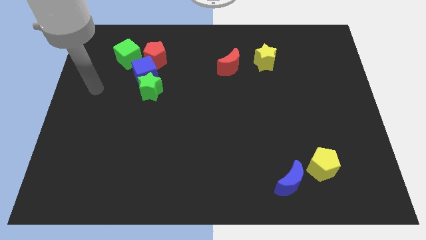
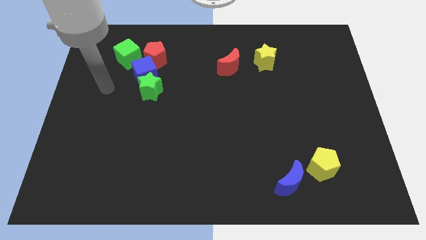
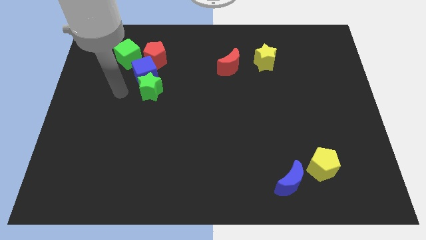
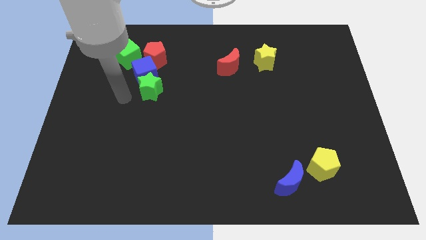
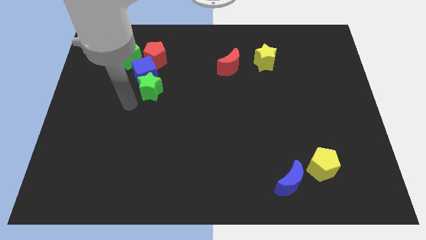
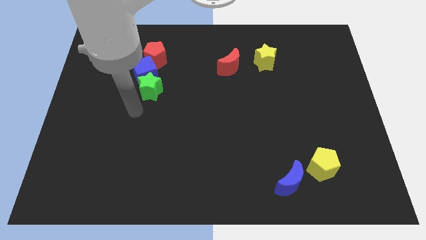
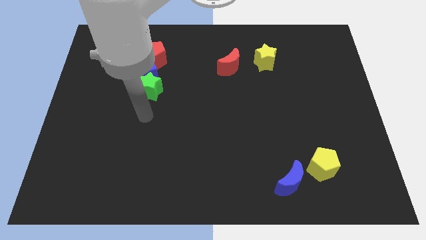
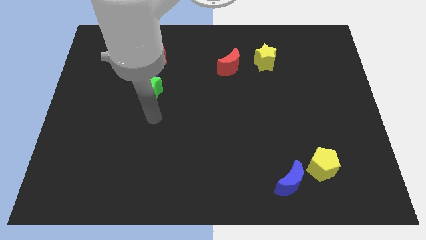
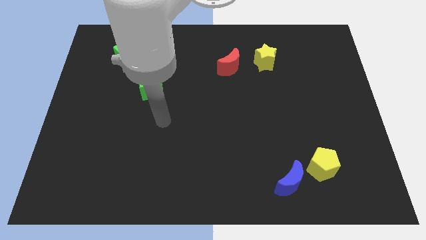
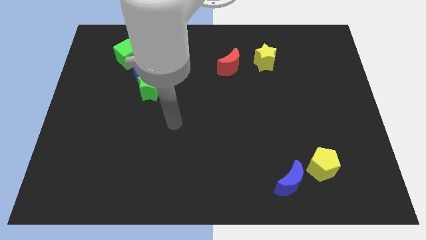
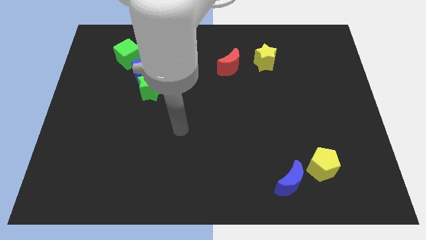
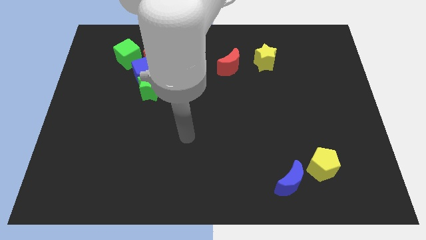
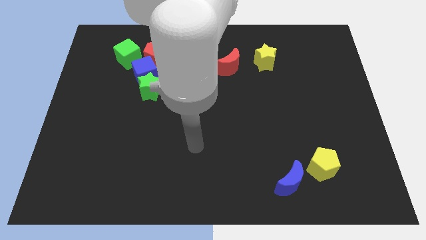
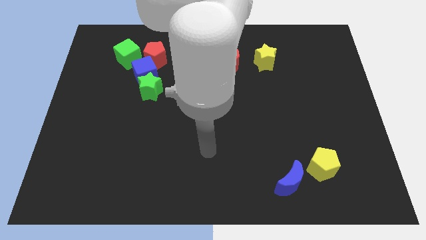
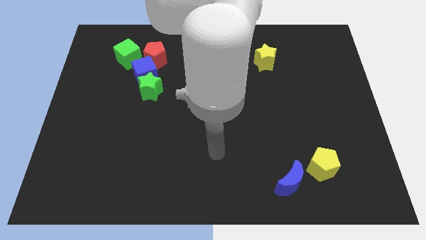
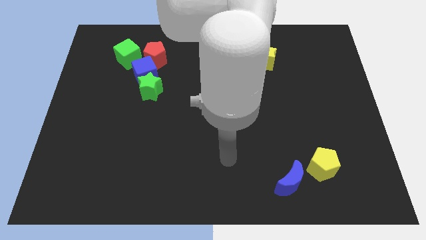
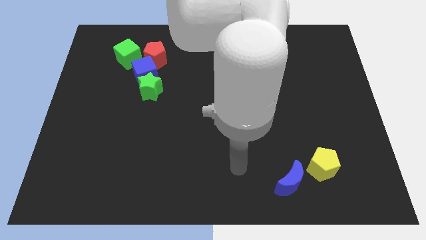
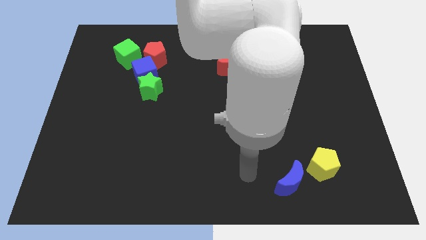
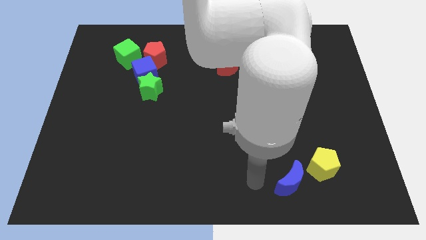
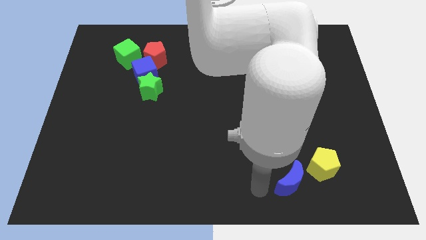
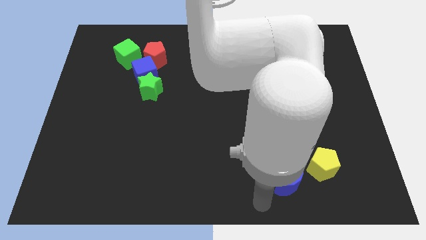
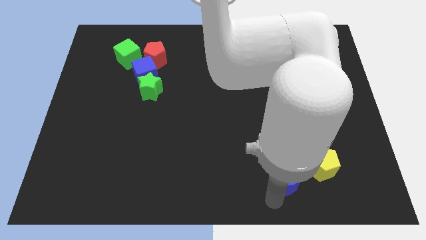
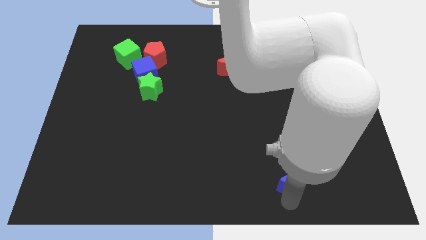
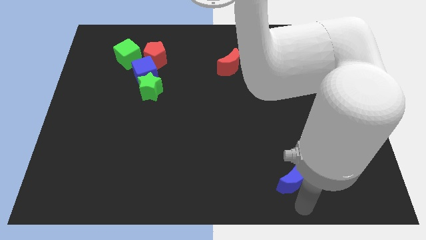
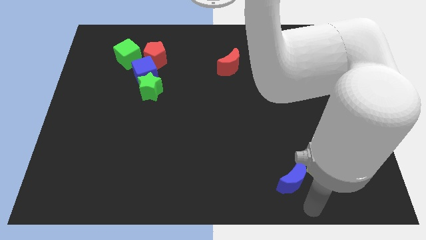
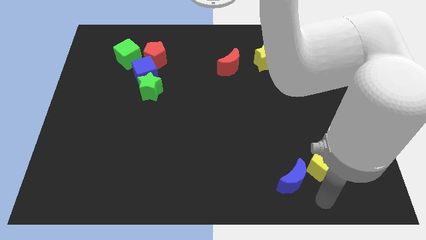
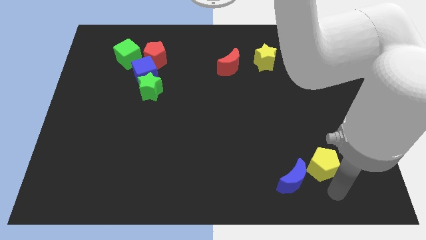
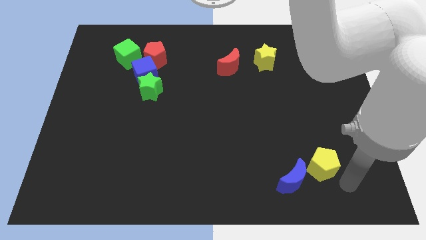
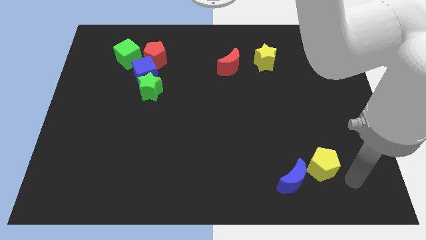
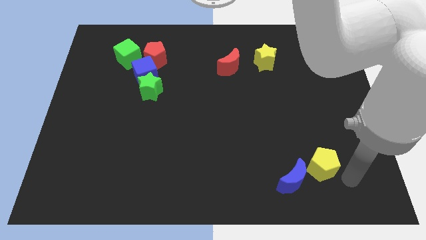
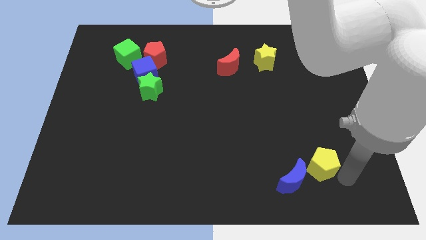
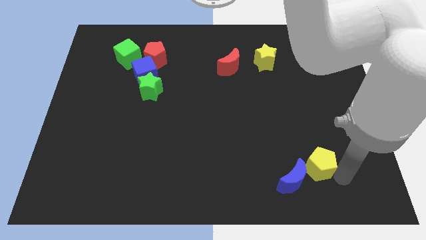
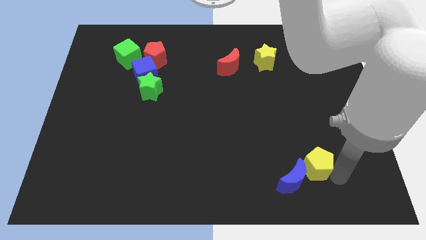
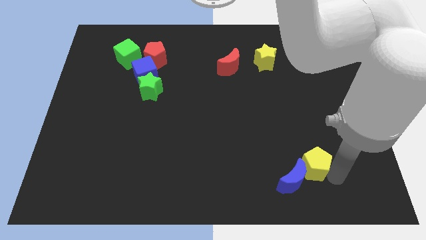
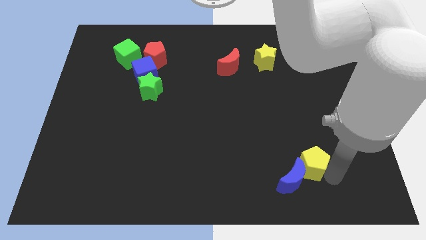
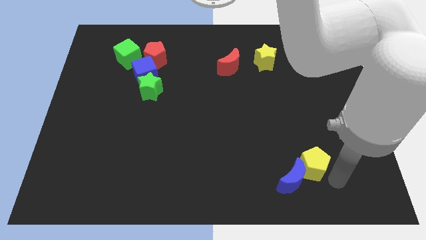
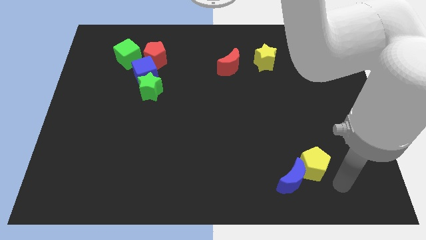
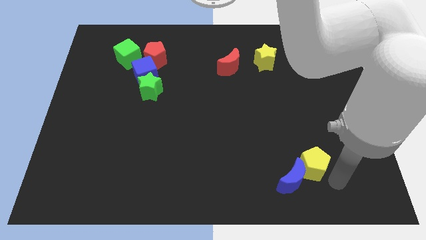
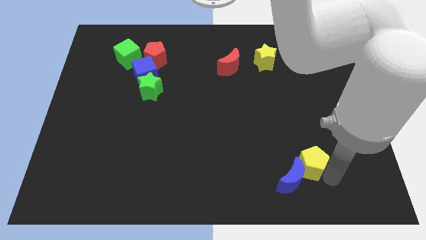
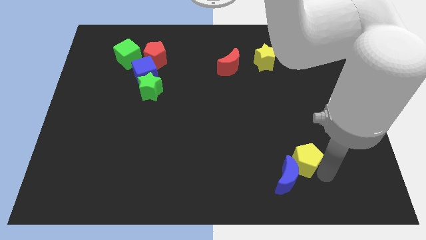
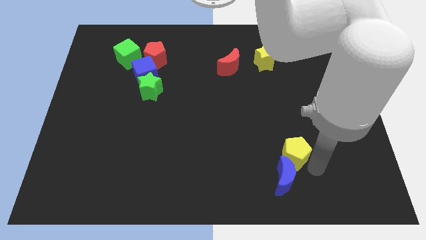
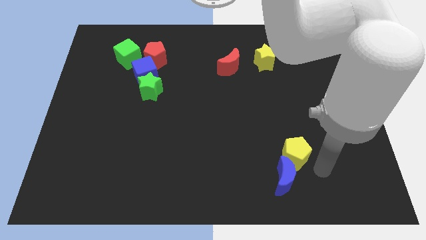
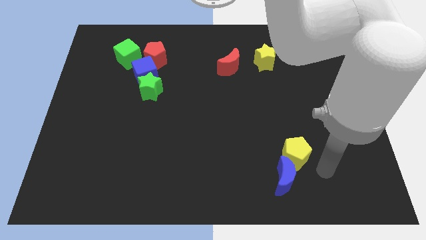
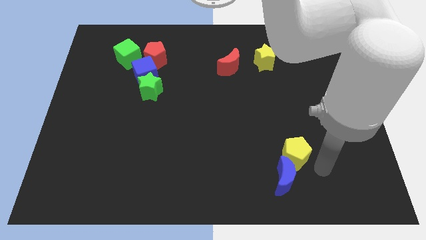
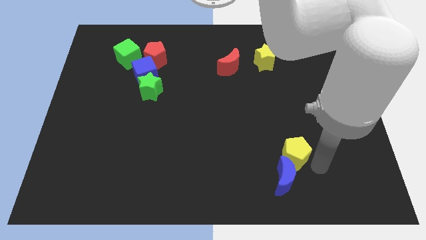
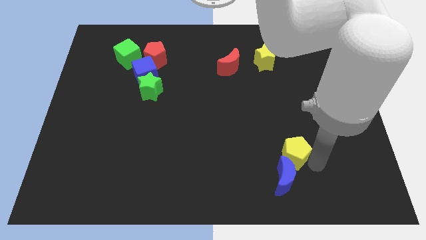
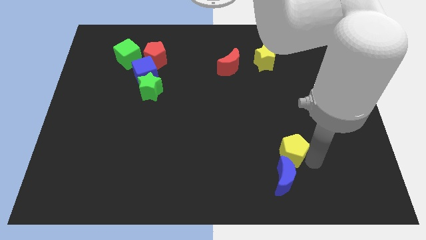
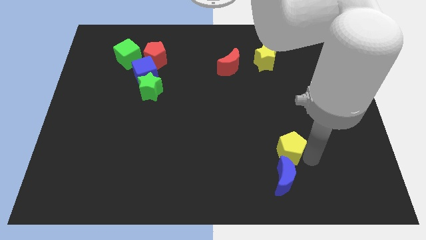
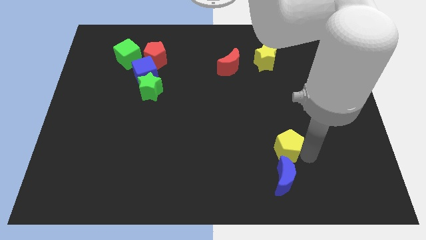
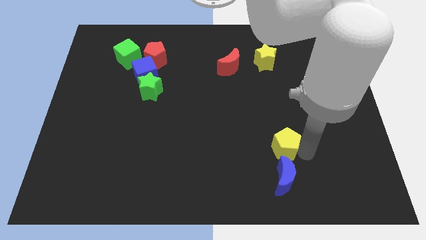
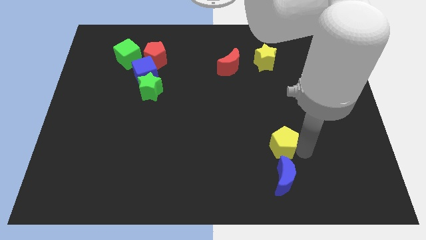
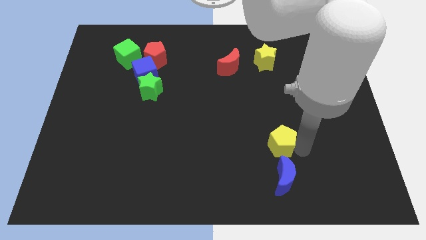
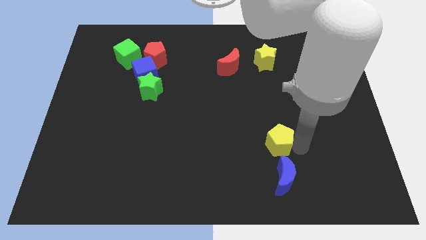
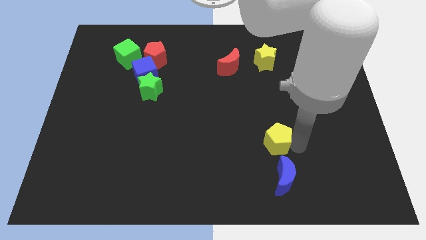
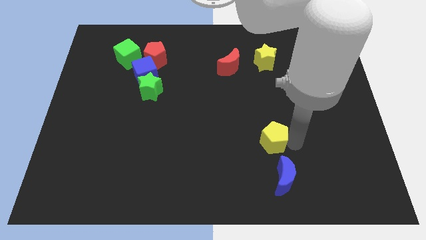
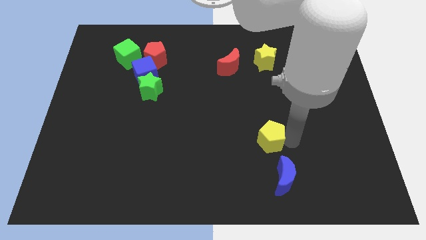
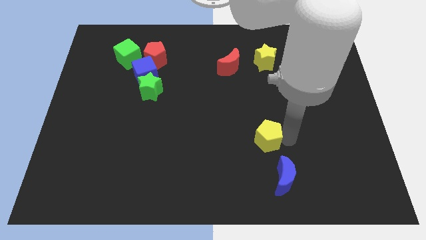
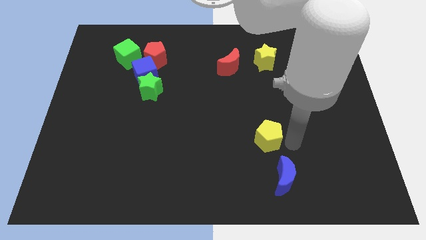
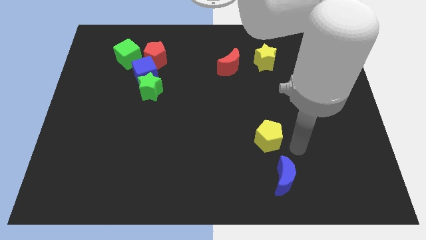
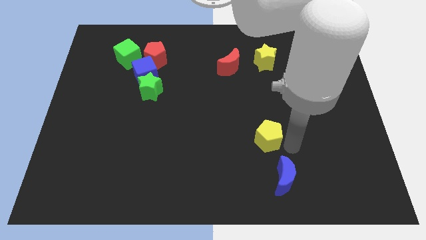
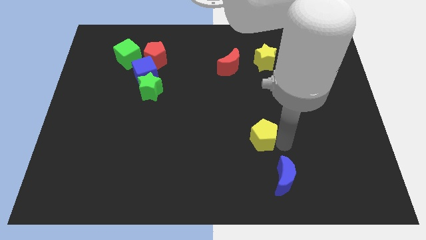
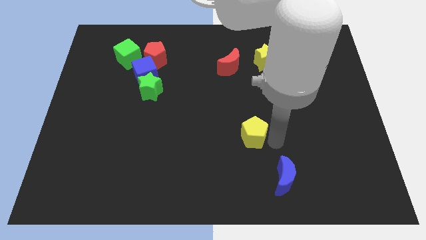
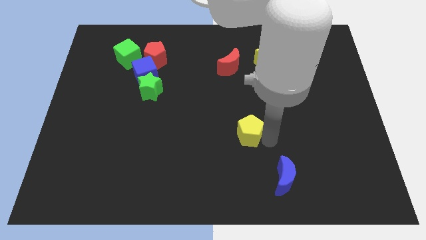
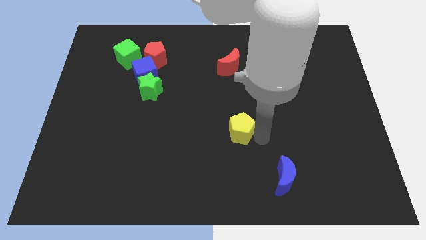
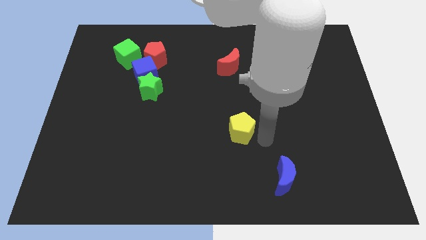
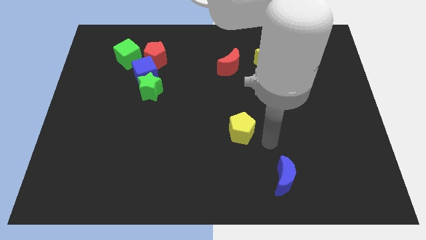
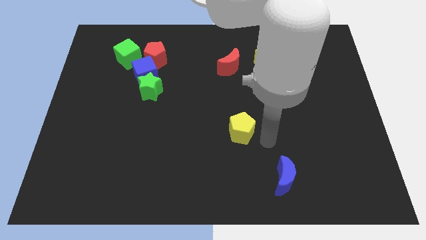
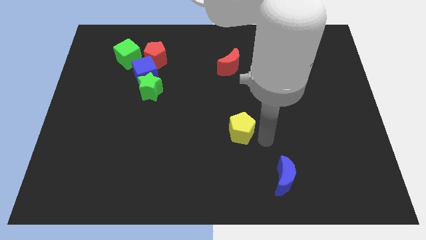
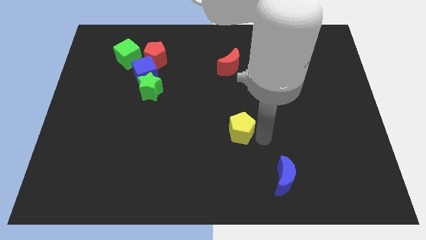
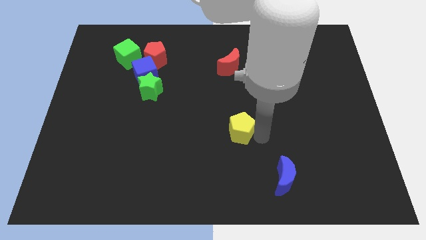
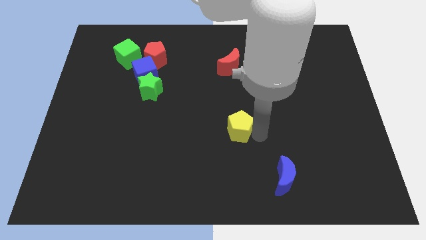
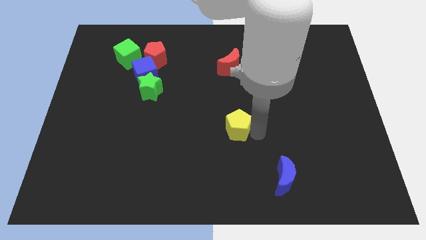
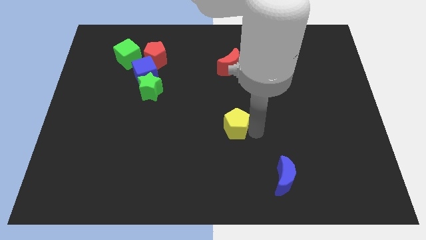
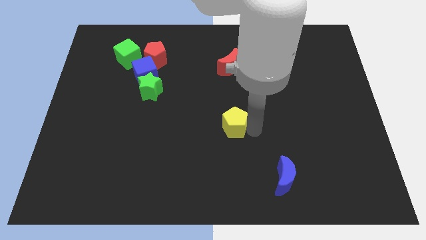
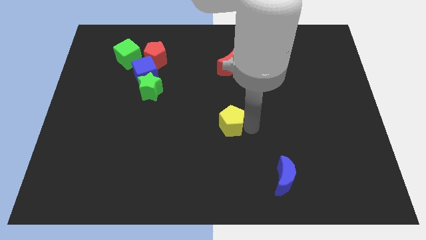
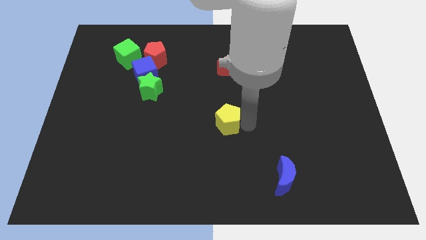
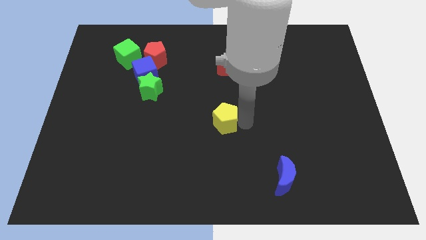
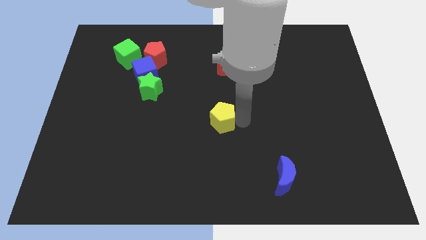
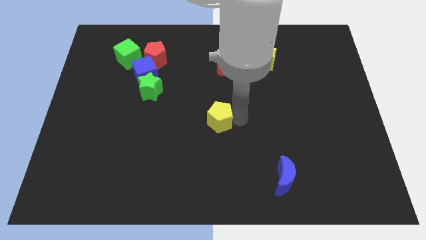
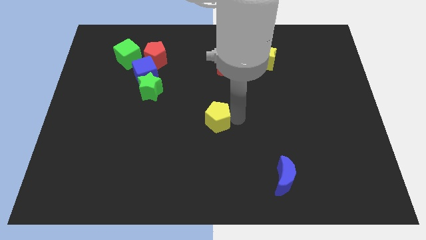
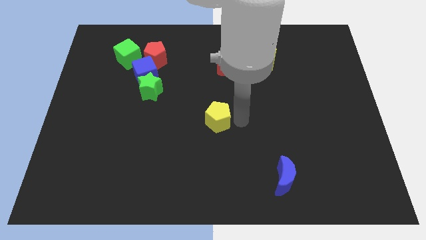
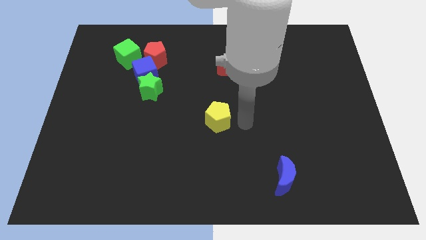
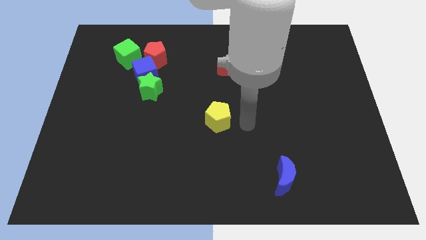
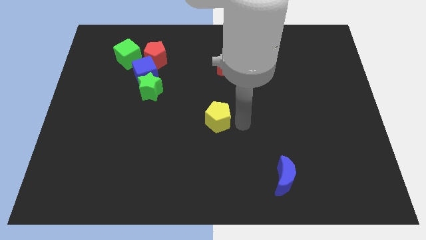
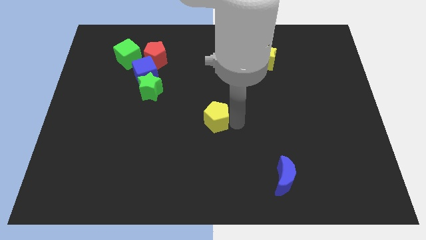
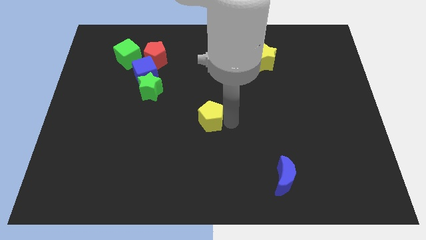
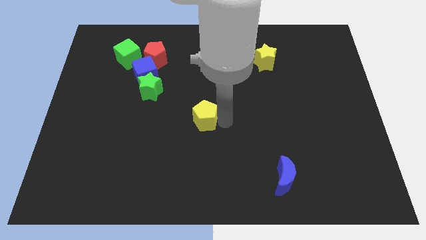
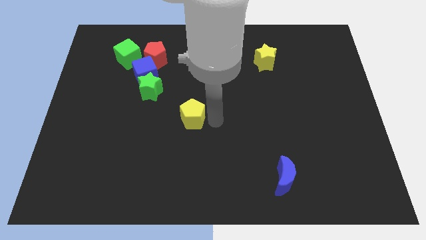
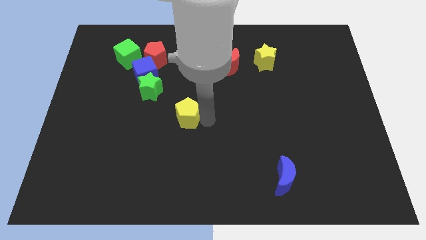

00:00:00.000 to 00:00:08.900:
push the yellow pentagon to the bottom right side of the green star
